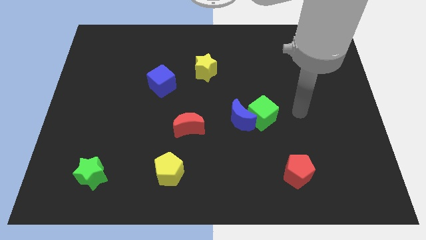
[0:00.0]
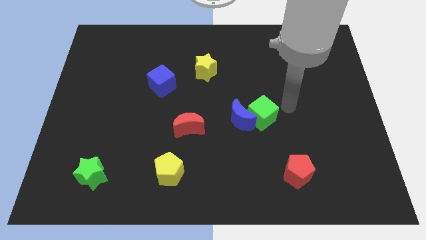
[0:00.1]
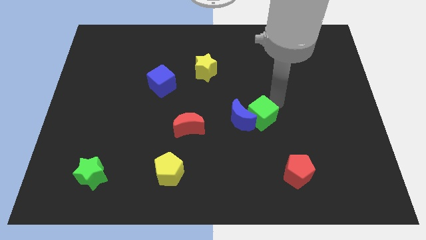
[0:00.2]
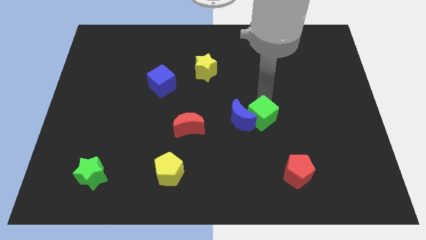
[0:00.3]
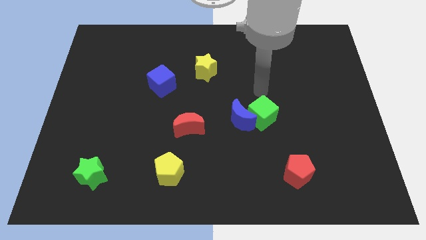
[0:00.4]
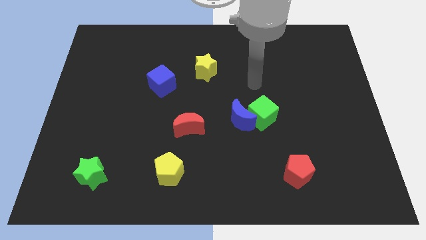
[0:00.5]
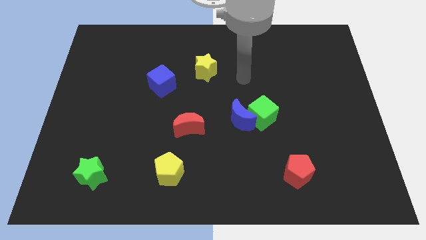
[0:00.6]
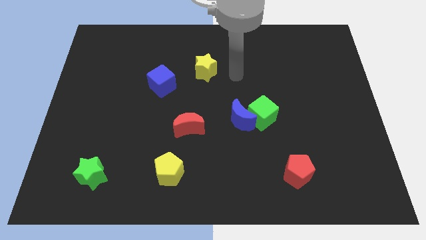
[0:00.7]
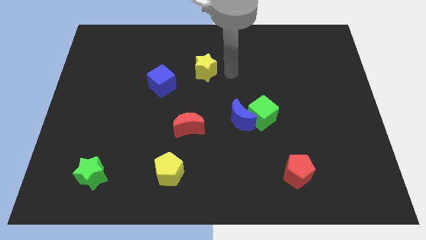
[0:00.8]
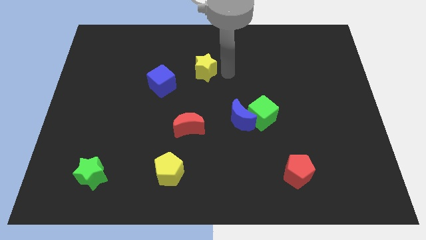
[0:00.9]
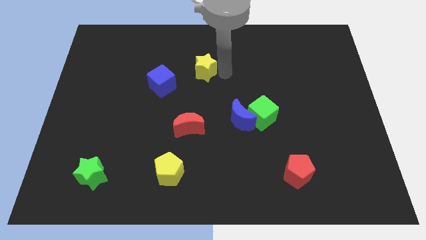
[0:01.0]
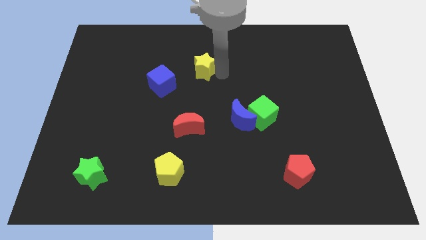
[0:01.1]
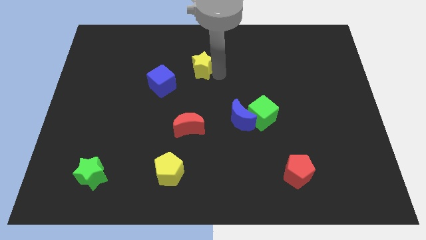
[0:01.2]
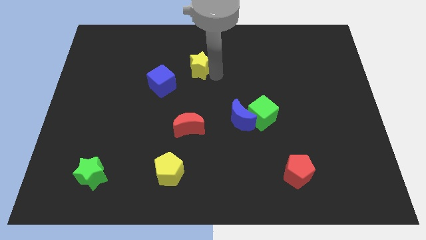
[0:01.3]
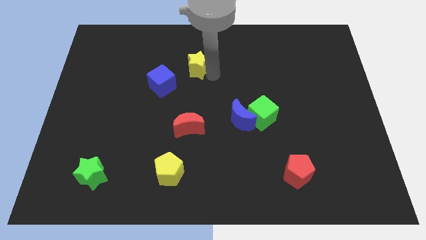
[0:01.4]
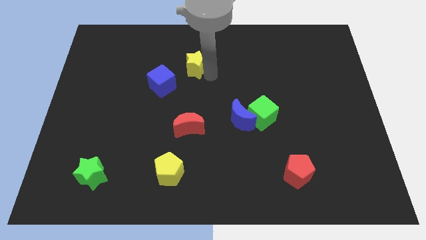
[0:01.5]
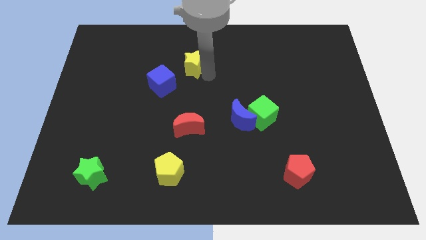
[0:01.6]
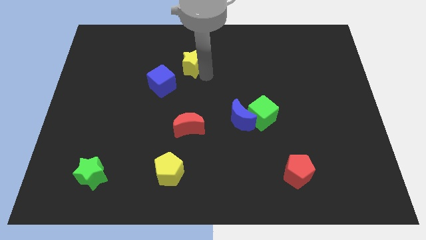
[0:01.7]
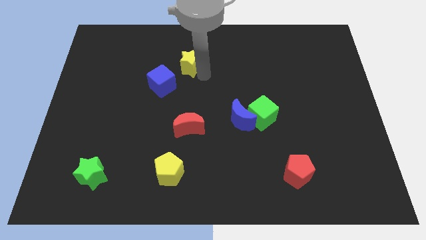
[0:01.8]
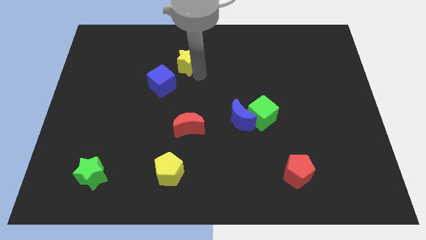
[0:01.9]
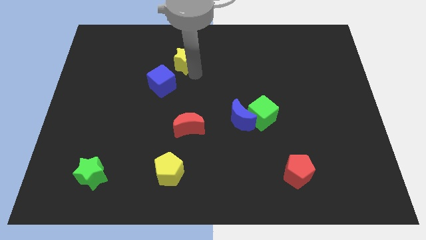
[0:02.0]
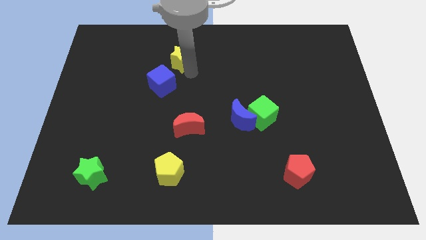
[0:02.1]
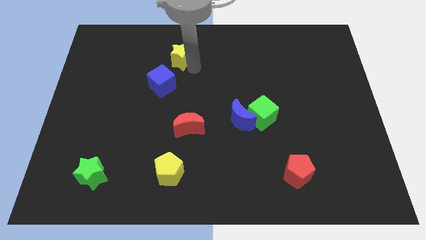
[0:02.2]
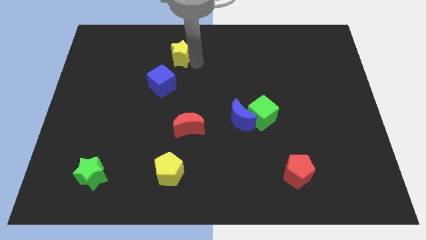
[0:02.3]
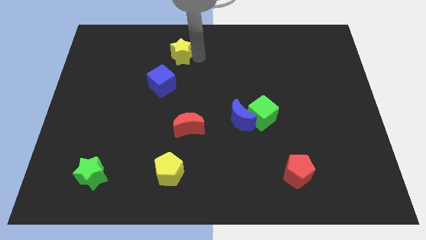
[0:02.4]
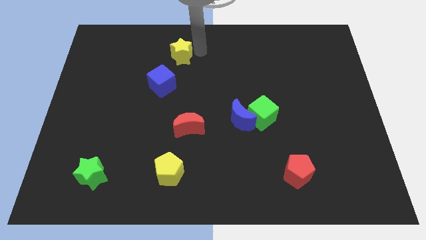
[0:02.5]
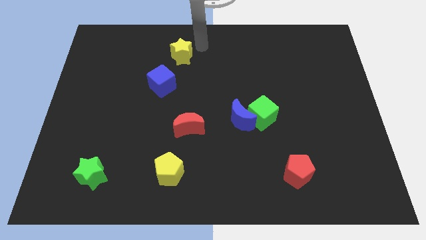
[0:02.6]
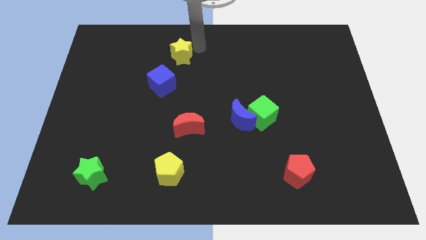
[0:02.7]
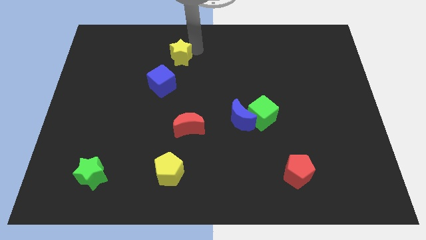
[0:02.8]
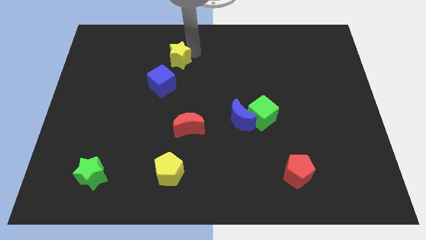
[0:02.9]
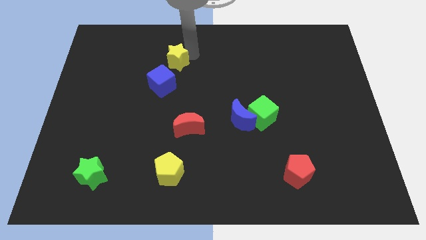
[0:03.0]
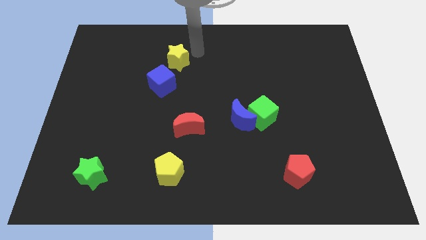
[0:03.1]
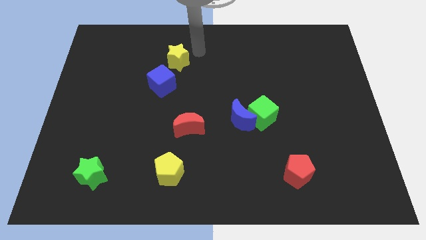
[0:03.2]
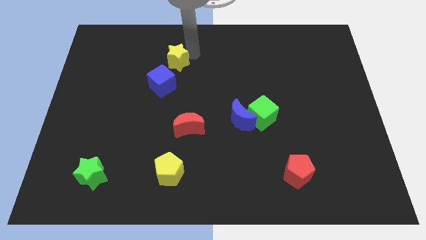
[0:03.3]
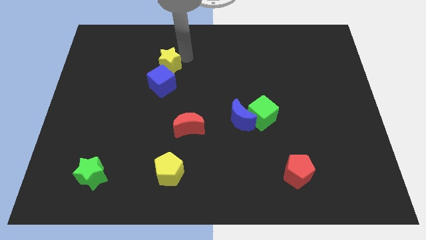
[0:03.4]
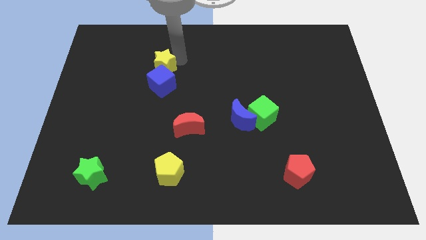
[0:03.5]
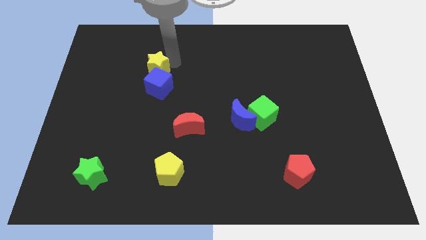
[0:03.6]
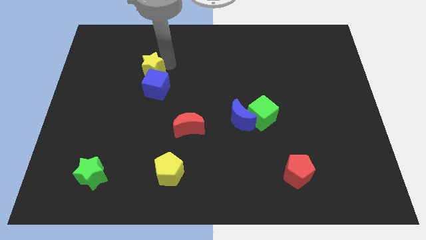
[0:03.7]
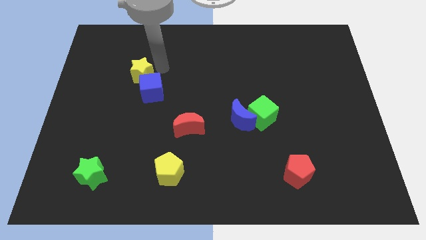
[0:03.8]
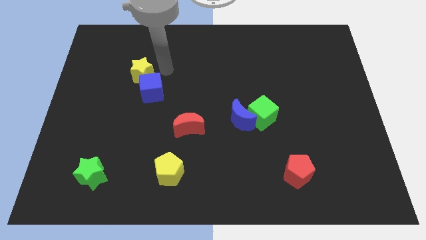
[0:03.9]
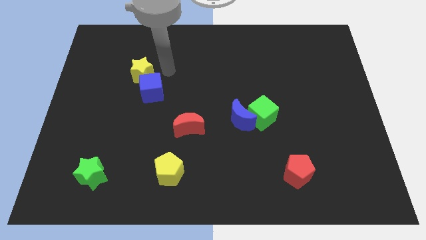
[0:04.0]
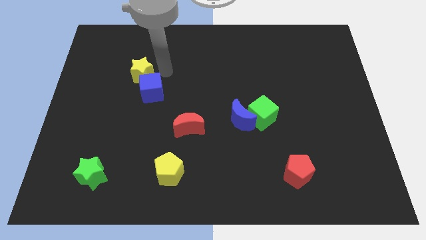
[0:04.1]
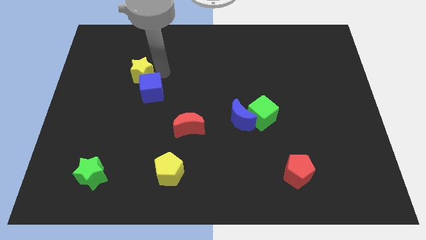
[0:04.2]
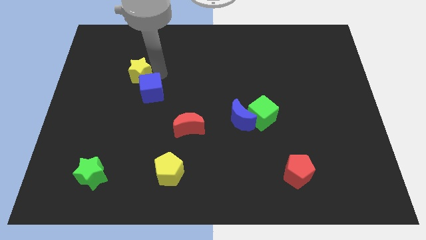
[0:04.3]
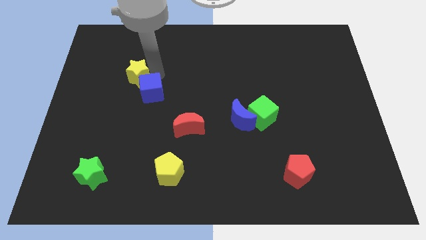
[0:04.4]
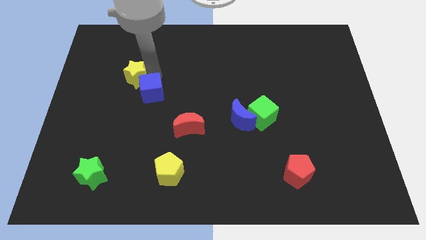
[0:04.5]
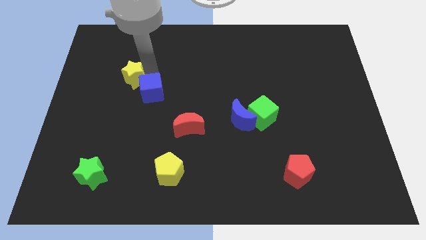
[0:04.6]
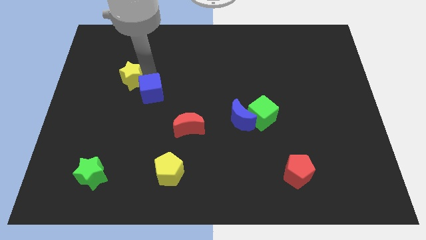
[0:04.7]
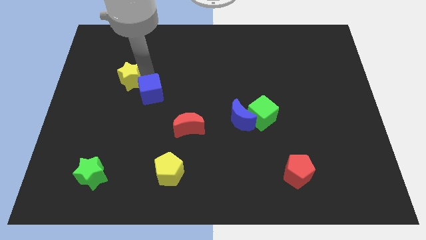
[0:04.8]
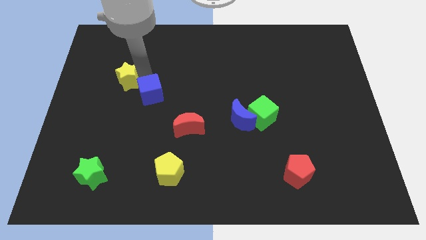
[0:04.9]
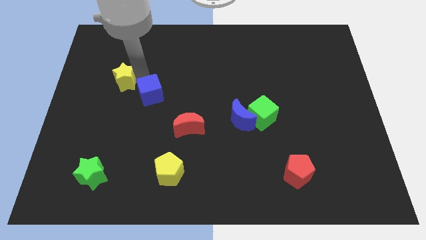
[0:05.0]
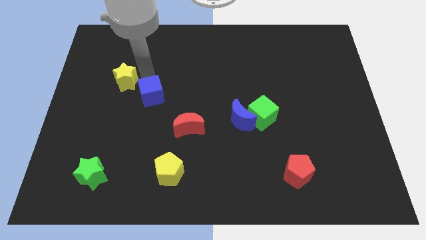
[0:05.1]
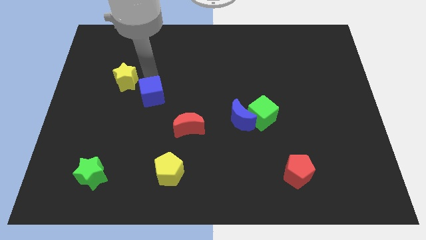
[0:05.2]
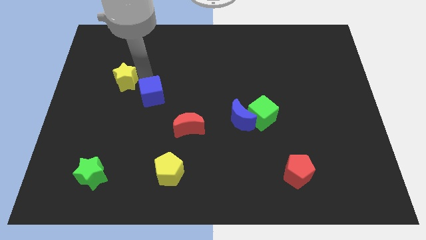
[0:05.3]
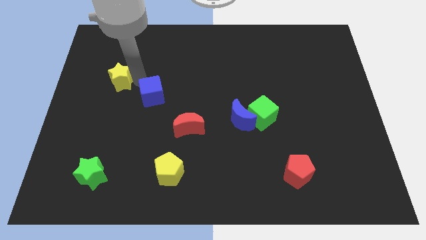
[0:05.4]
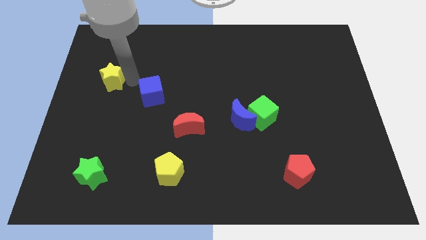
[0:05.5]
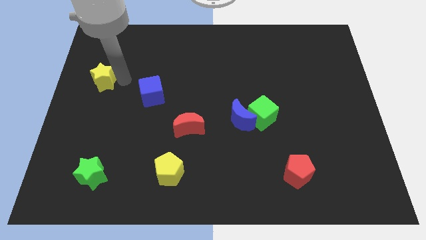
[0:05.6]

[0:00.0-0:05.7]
put the yellow star to the left side
